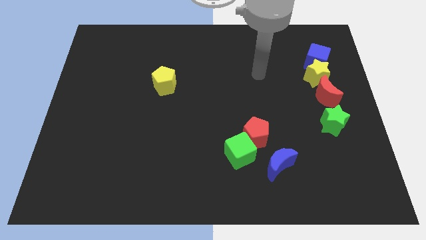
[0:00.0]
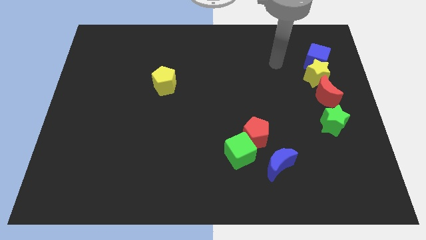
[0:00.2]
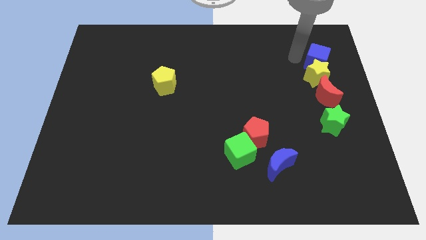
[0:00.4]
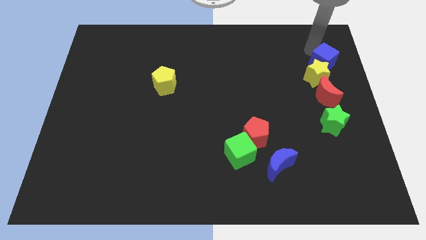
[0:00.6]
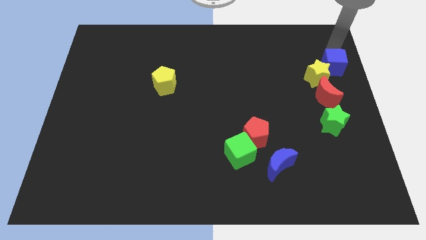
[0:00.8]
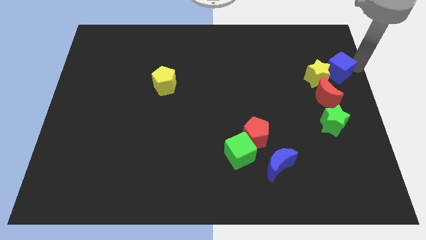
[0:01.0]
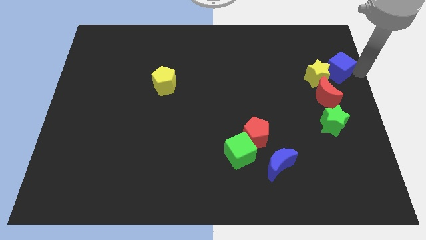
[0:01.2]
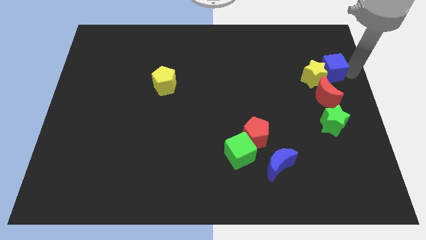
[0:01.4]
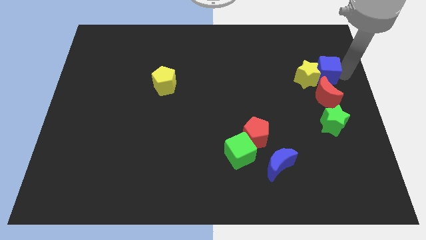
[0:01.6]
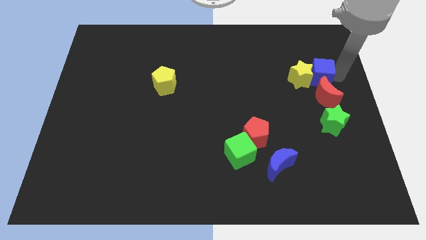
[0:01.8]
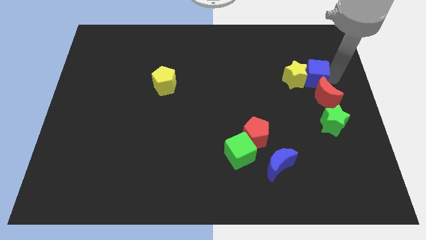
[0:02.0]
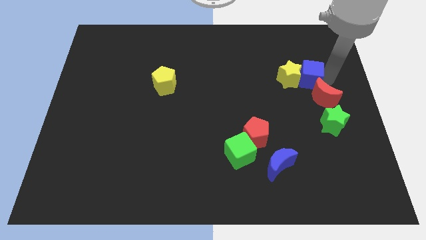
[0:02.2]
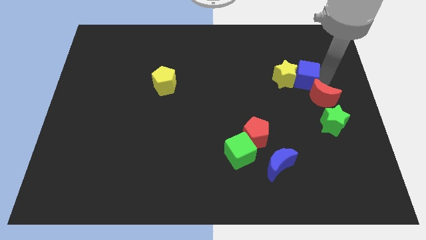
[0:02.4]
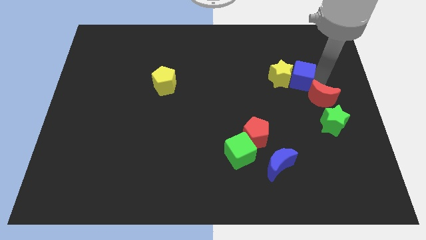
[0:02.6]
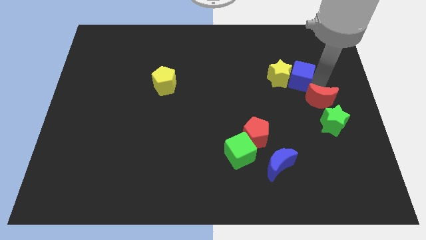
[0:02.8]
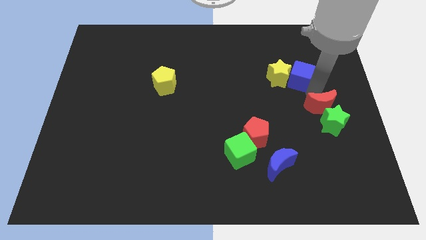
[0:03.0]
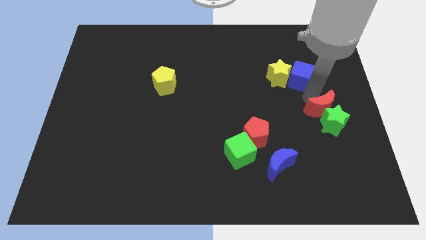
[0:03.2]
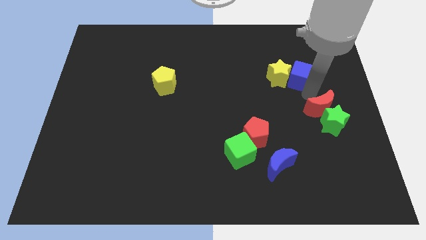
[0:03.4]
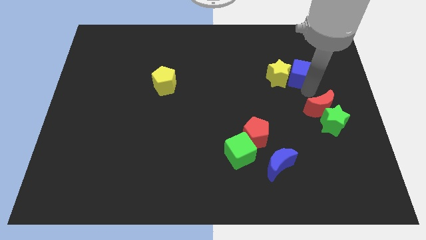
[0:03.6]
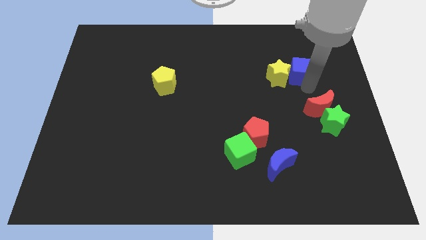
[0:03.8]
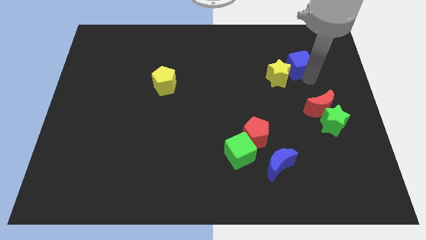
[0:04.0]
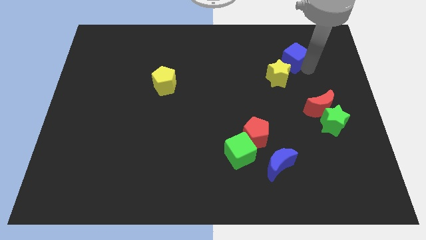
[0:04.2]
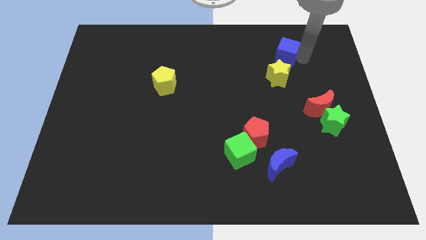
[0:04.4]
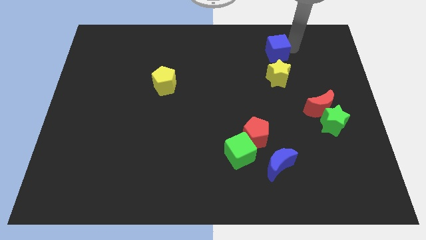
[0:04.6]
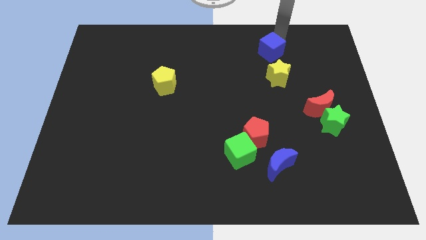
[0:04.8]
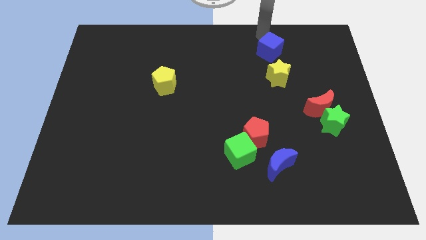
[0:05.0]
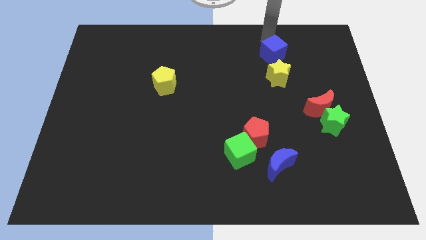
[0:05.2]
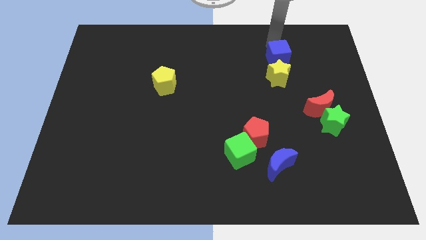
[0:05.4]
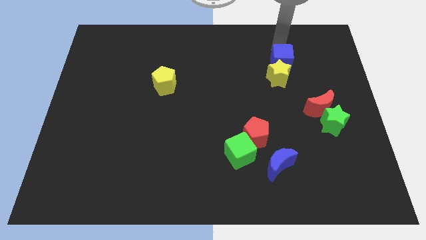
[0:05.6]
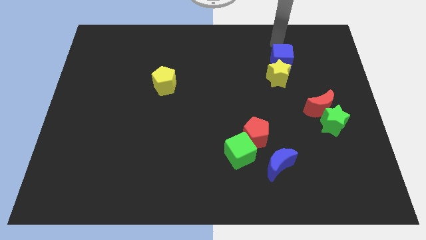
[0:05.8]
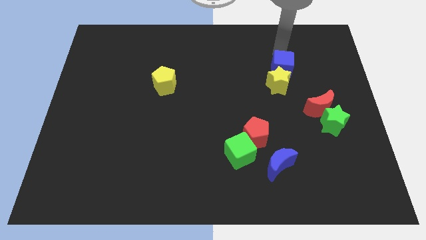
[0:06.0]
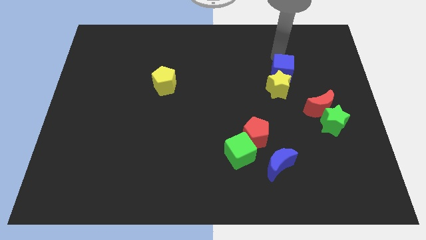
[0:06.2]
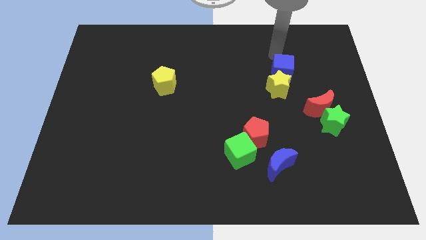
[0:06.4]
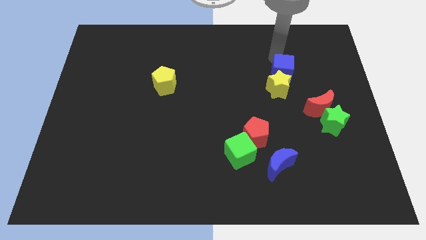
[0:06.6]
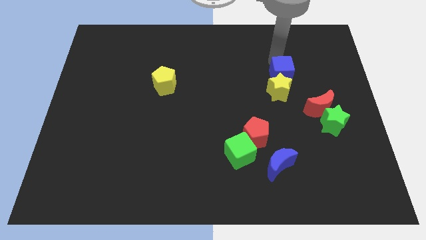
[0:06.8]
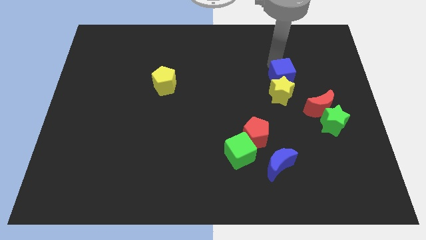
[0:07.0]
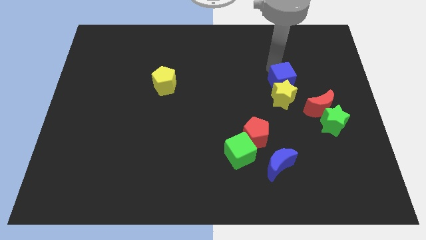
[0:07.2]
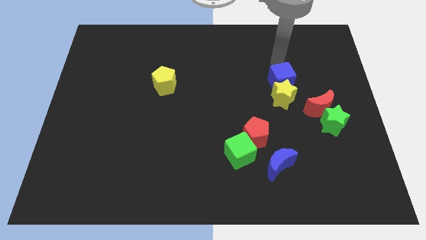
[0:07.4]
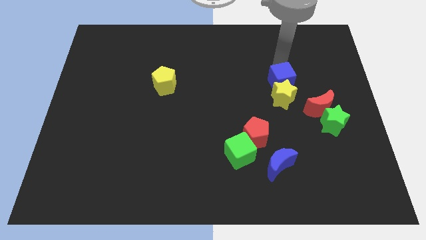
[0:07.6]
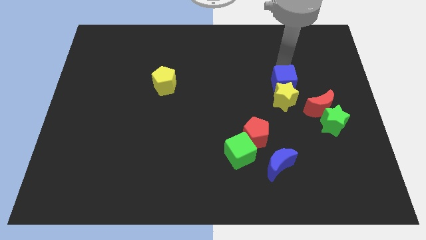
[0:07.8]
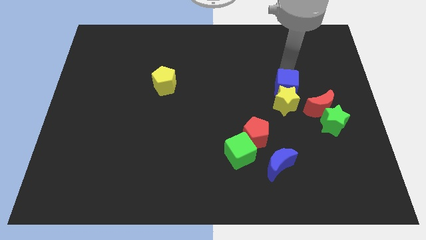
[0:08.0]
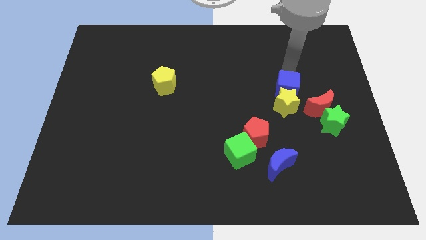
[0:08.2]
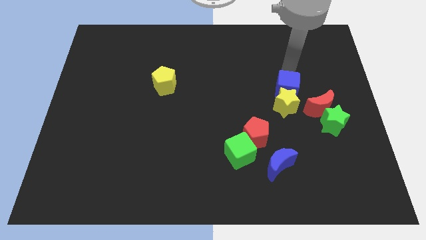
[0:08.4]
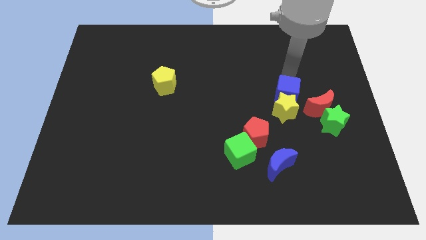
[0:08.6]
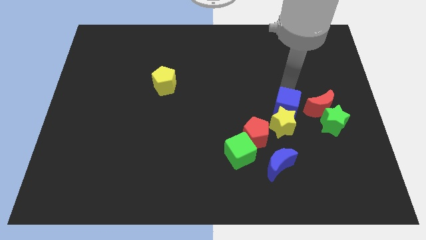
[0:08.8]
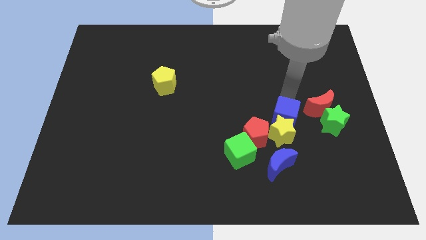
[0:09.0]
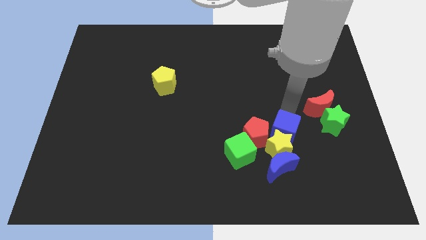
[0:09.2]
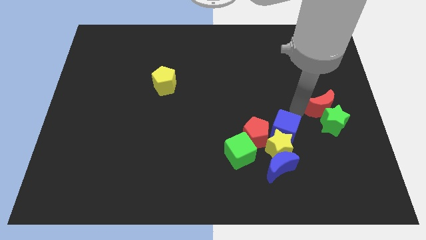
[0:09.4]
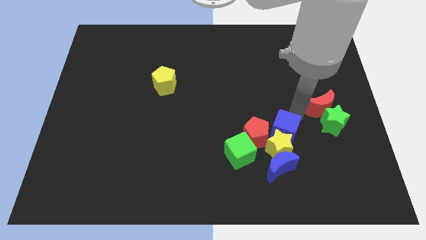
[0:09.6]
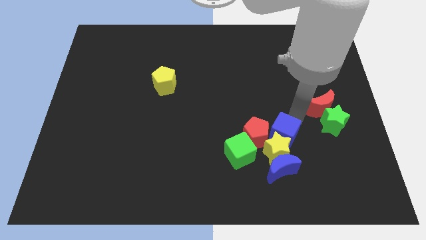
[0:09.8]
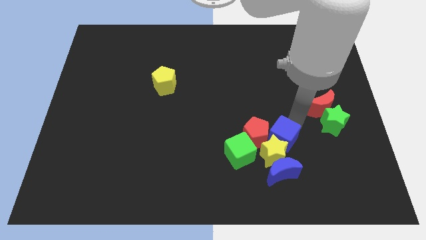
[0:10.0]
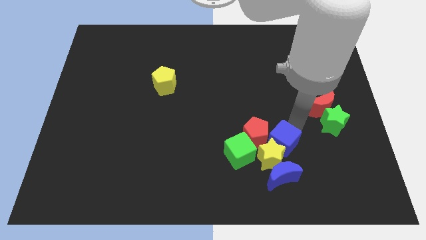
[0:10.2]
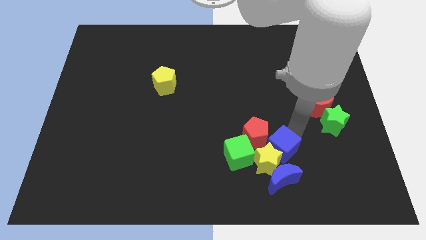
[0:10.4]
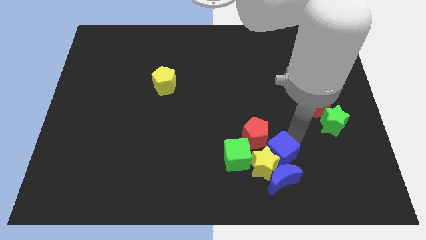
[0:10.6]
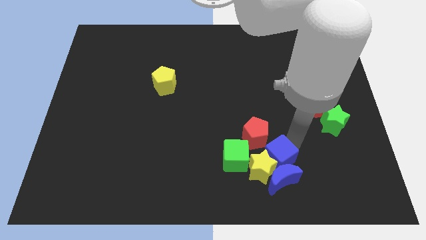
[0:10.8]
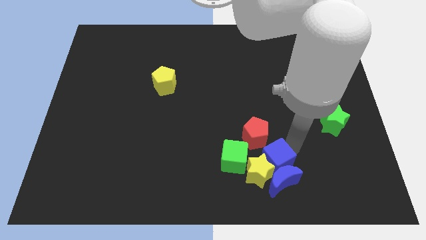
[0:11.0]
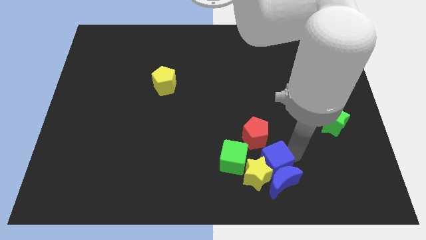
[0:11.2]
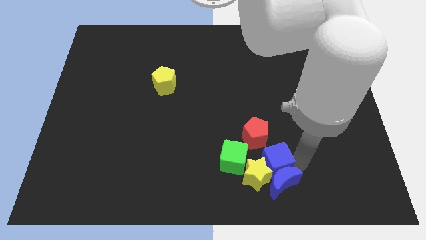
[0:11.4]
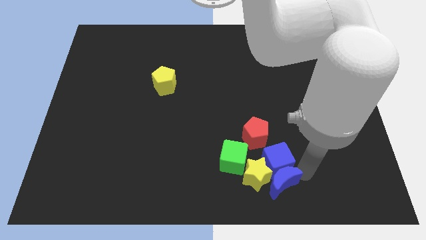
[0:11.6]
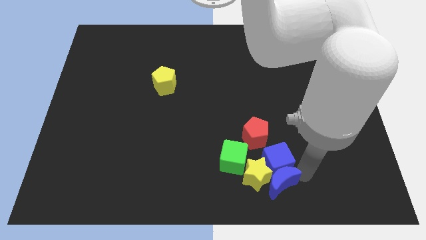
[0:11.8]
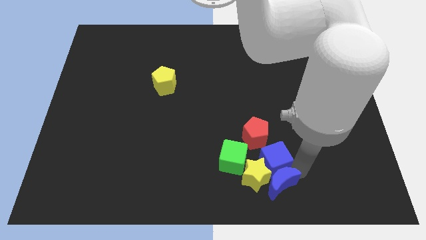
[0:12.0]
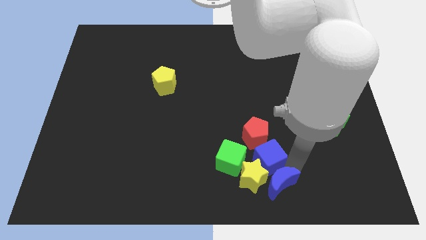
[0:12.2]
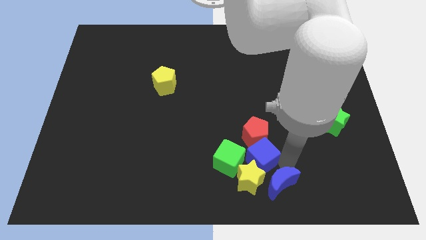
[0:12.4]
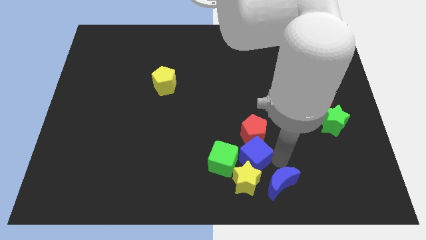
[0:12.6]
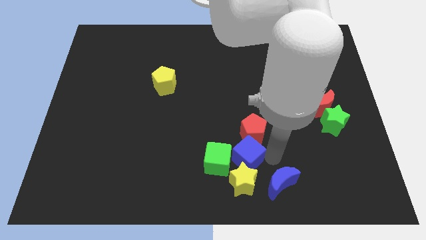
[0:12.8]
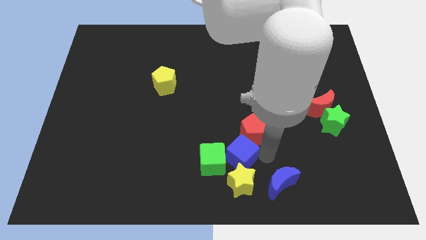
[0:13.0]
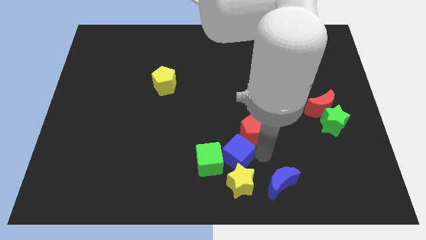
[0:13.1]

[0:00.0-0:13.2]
slide the blue cube to the bottom

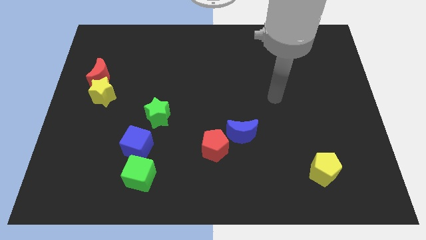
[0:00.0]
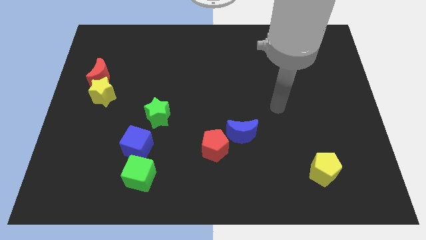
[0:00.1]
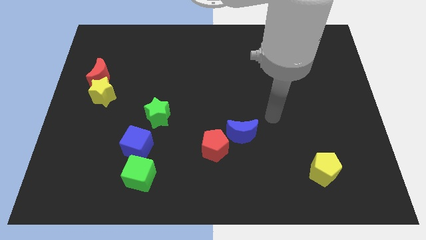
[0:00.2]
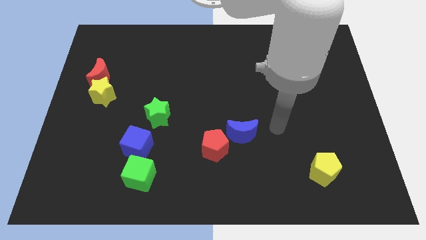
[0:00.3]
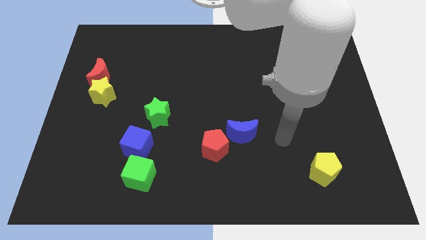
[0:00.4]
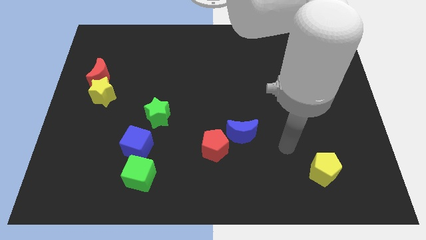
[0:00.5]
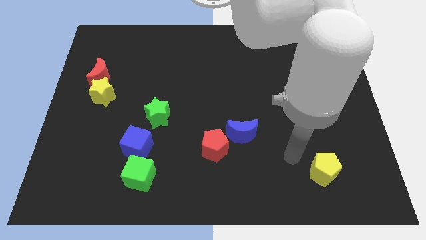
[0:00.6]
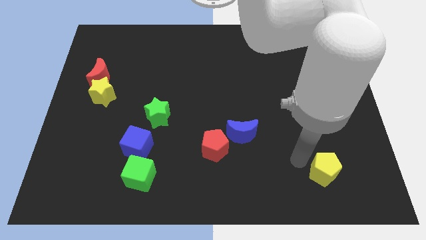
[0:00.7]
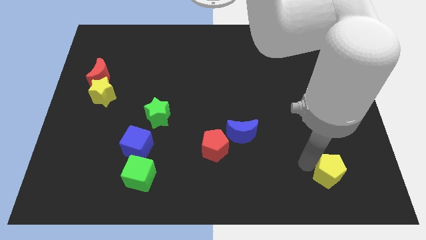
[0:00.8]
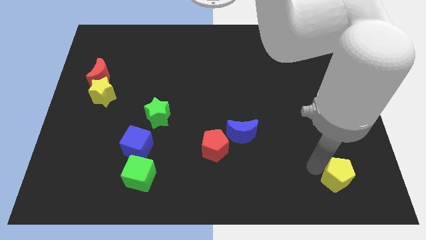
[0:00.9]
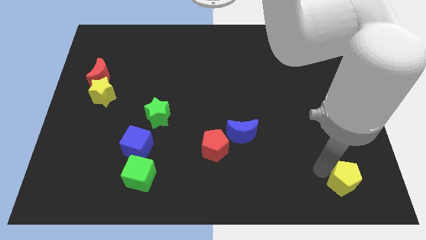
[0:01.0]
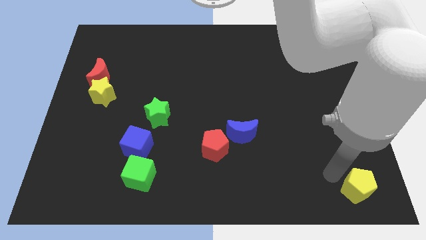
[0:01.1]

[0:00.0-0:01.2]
slide the yellow pentagon to the bottom right
